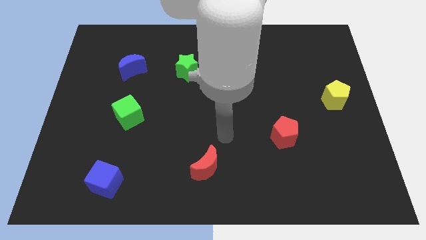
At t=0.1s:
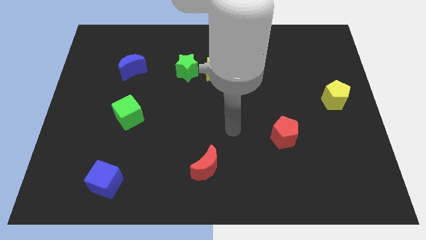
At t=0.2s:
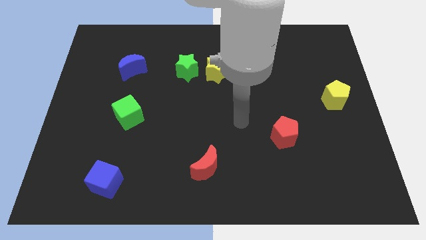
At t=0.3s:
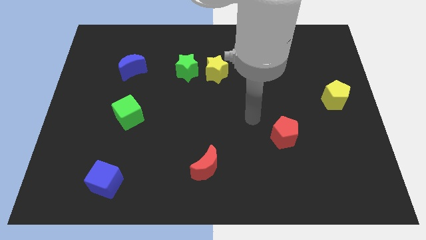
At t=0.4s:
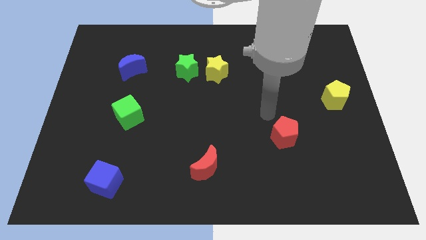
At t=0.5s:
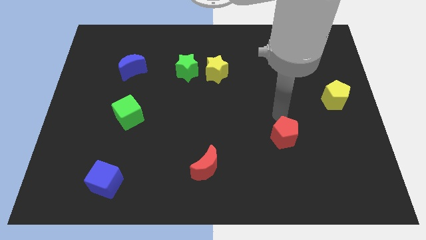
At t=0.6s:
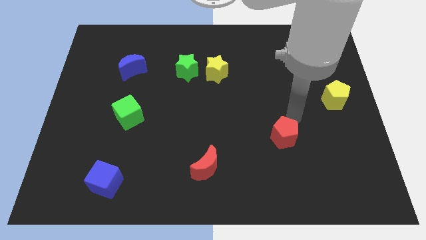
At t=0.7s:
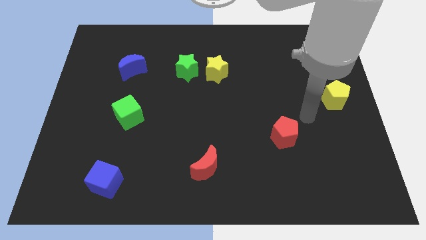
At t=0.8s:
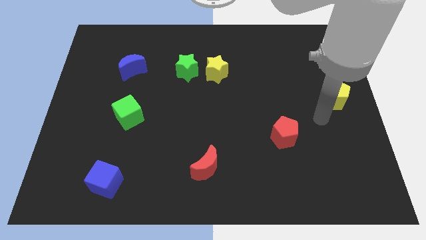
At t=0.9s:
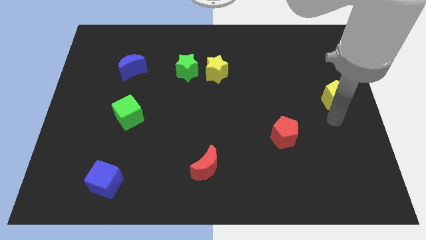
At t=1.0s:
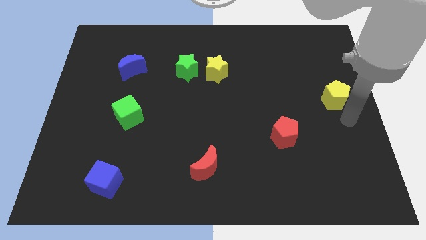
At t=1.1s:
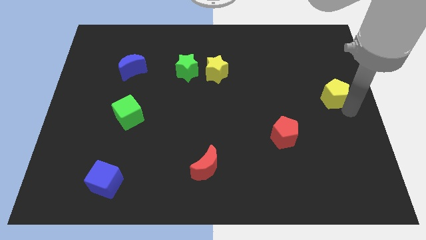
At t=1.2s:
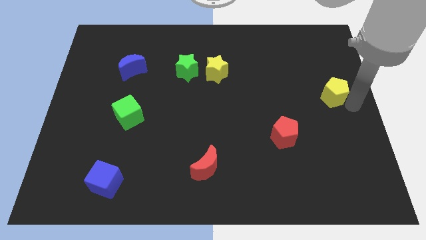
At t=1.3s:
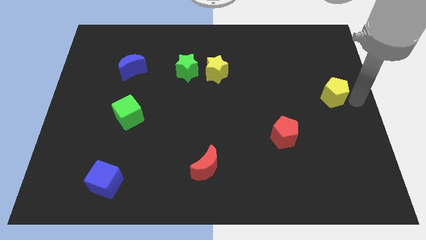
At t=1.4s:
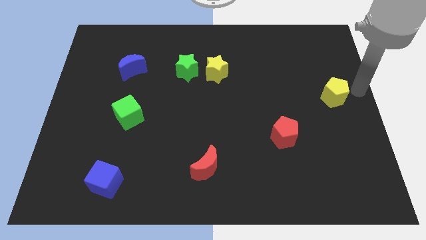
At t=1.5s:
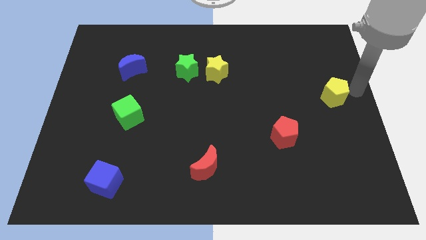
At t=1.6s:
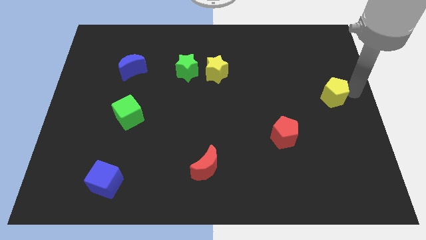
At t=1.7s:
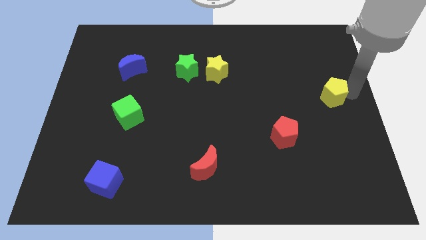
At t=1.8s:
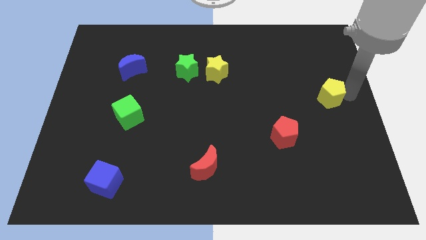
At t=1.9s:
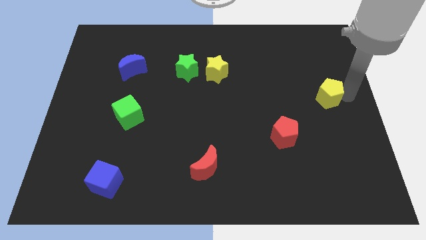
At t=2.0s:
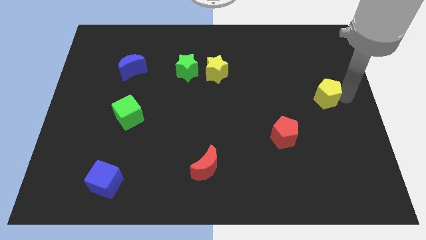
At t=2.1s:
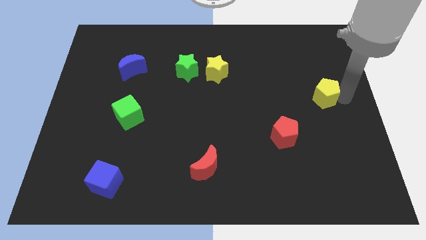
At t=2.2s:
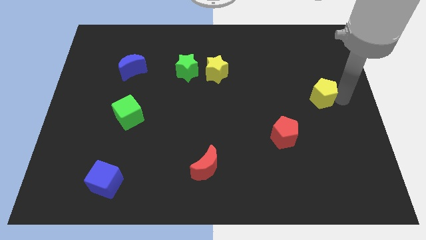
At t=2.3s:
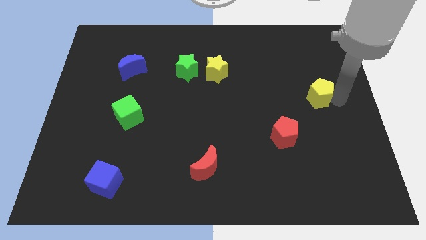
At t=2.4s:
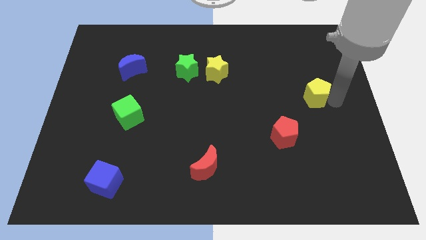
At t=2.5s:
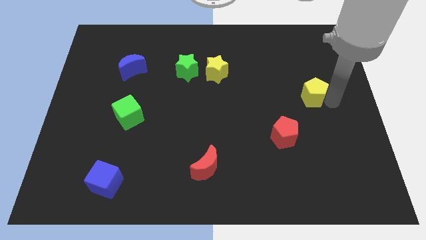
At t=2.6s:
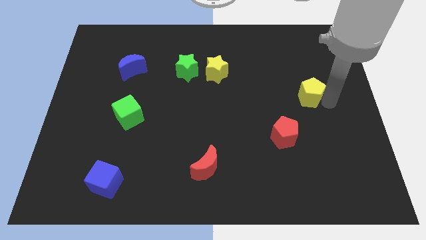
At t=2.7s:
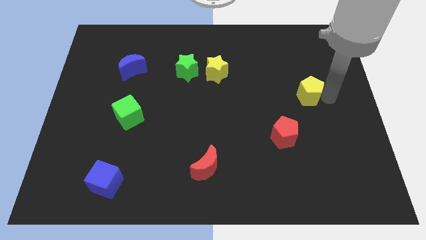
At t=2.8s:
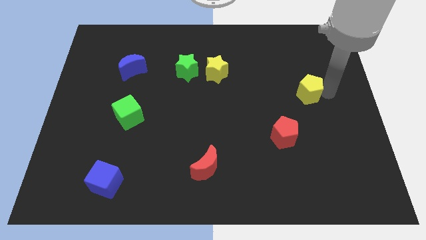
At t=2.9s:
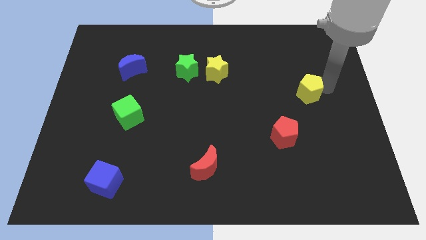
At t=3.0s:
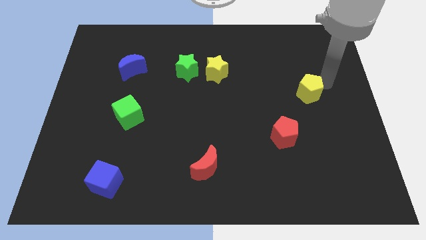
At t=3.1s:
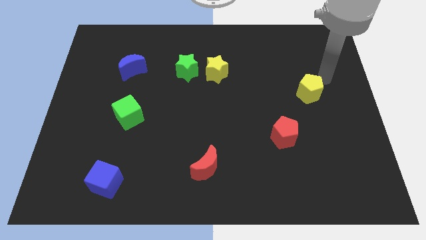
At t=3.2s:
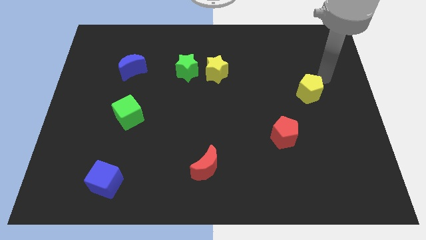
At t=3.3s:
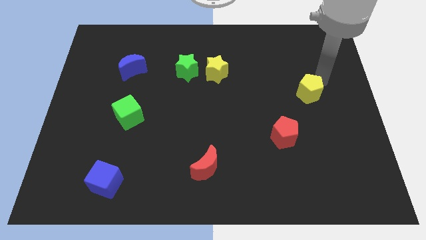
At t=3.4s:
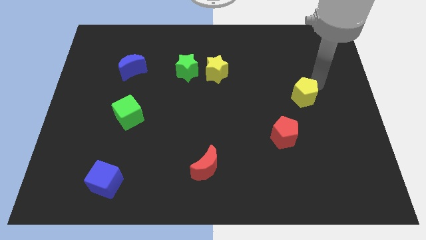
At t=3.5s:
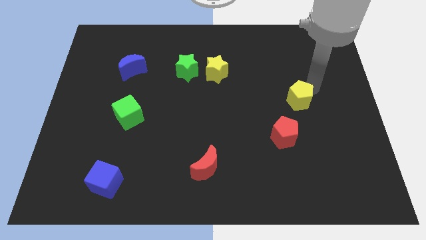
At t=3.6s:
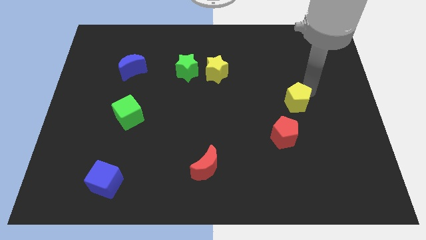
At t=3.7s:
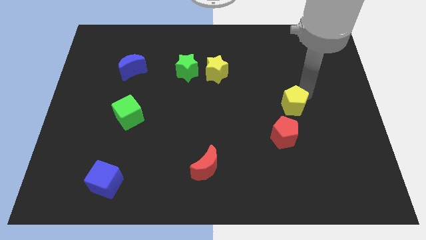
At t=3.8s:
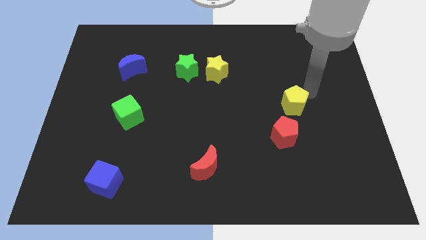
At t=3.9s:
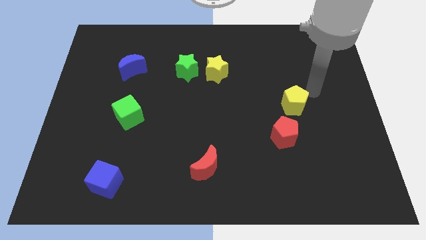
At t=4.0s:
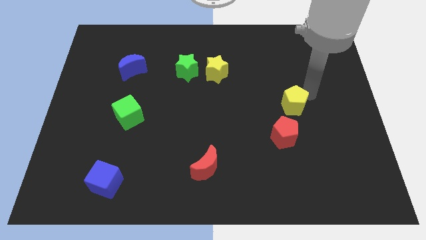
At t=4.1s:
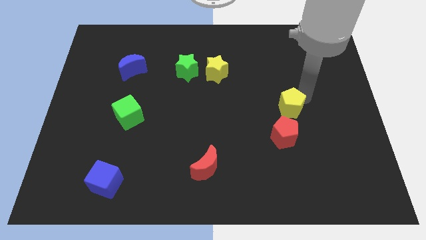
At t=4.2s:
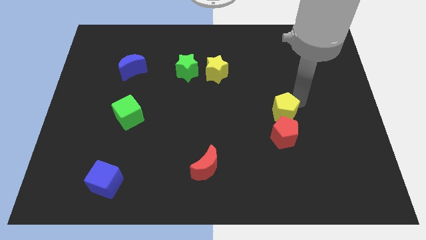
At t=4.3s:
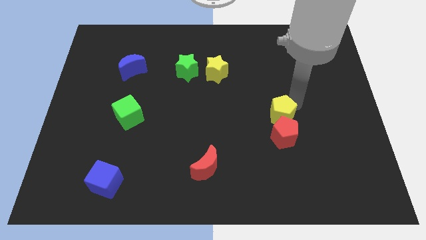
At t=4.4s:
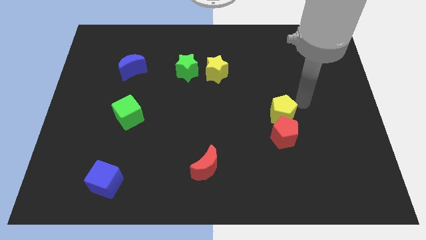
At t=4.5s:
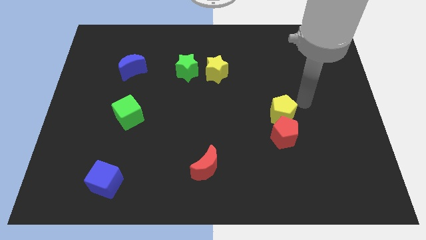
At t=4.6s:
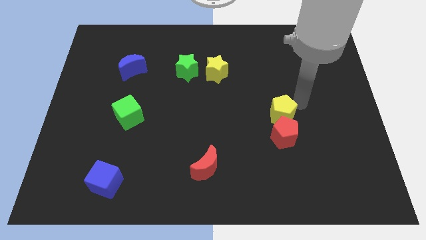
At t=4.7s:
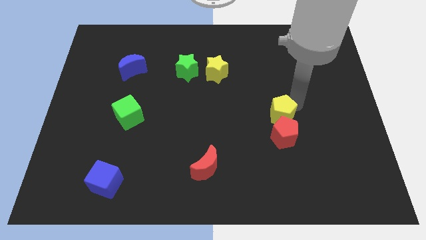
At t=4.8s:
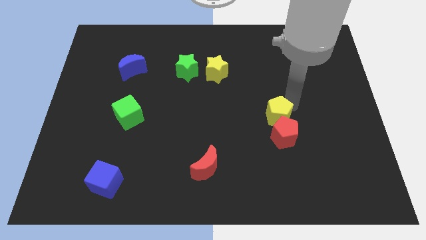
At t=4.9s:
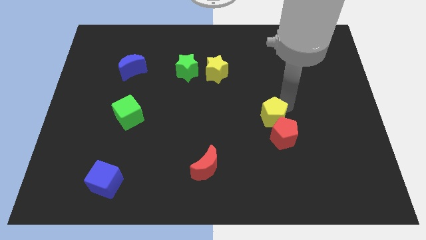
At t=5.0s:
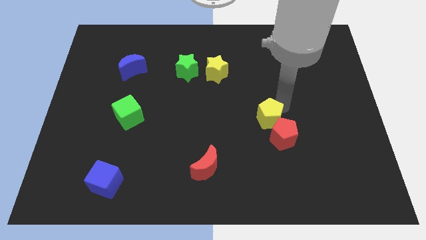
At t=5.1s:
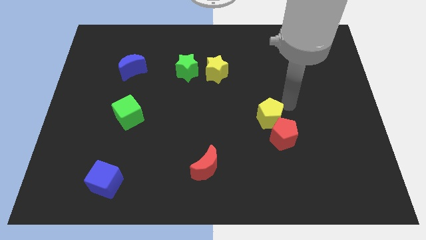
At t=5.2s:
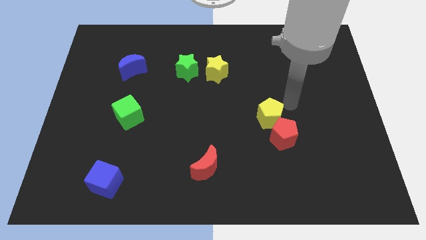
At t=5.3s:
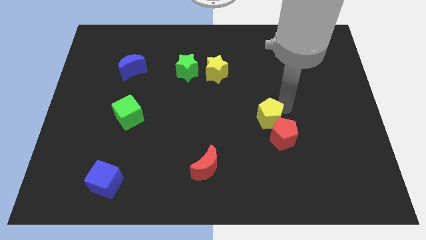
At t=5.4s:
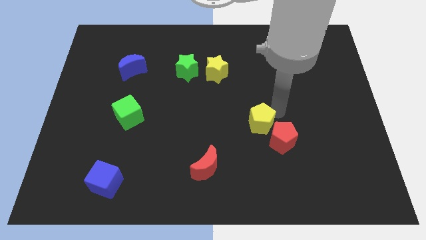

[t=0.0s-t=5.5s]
move the yellow pentagon to the left of the red pentagon

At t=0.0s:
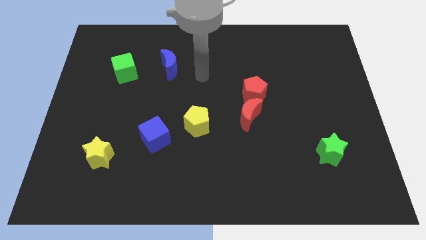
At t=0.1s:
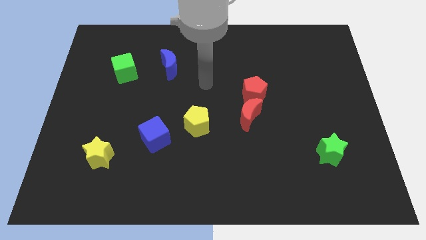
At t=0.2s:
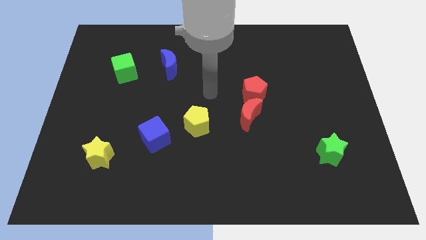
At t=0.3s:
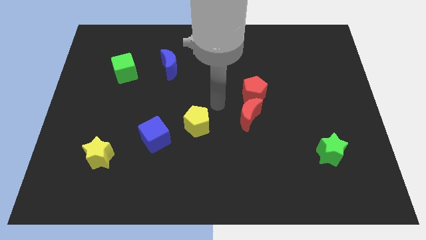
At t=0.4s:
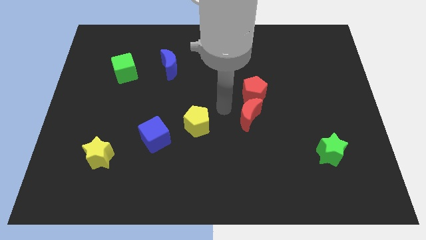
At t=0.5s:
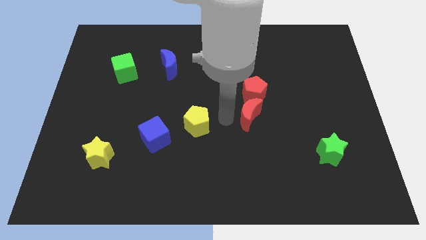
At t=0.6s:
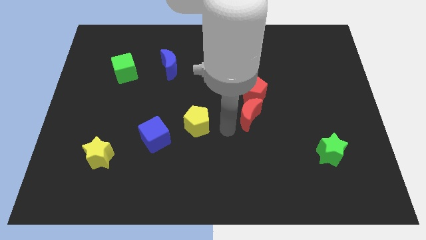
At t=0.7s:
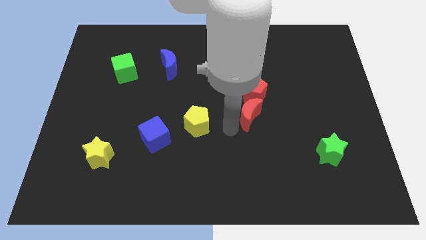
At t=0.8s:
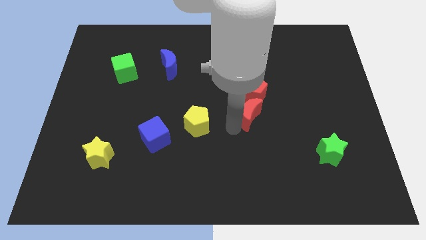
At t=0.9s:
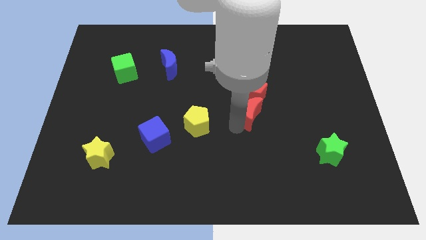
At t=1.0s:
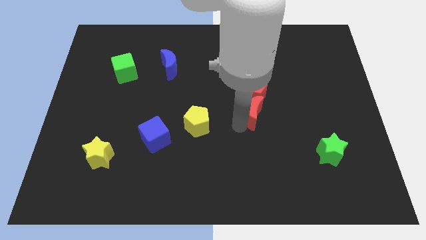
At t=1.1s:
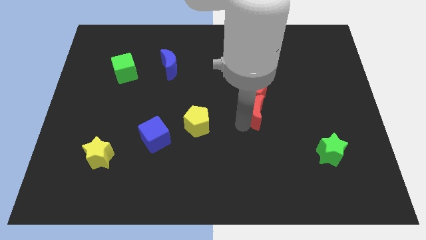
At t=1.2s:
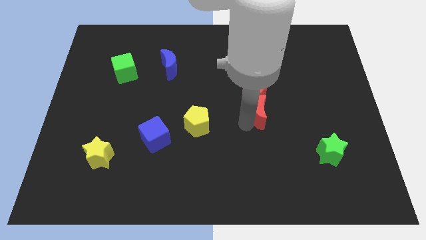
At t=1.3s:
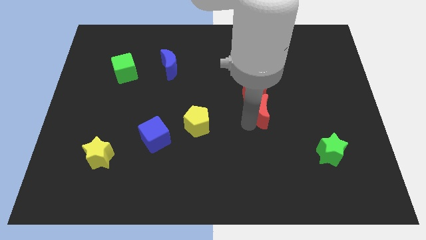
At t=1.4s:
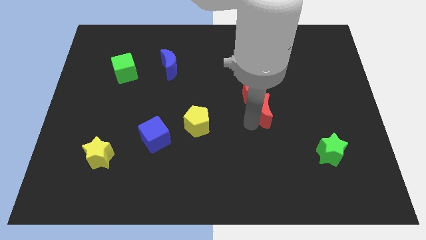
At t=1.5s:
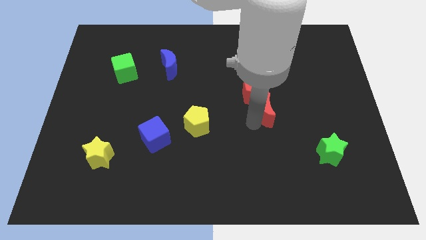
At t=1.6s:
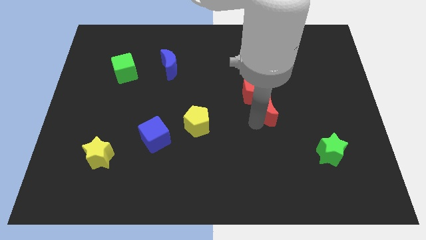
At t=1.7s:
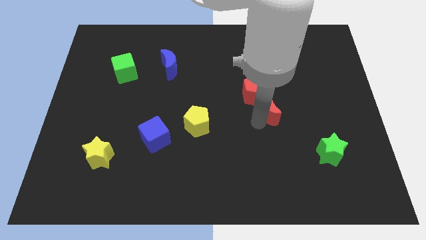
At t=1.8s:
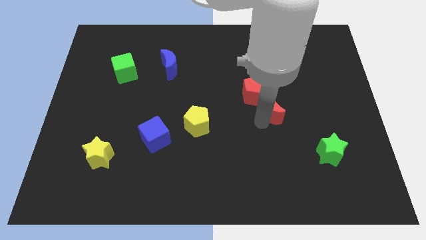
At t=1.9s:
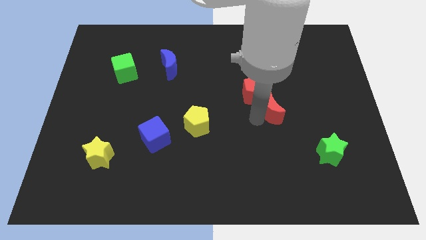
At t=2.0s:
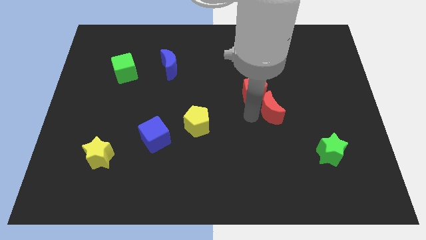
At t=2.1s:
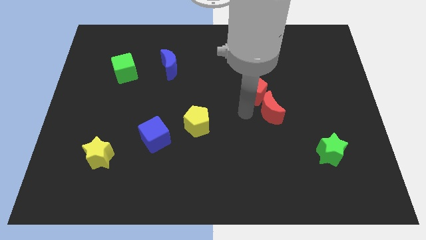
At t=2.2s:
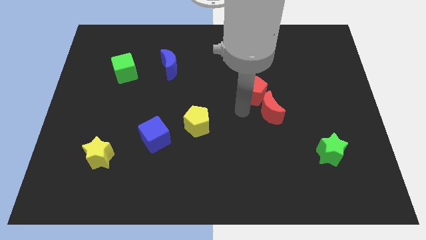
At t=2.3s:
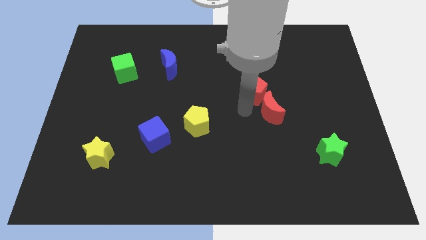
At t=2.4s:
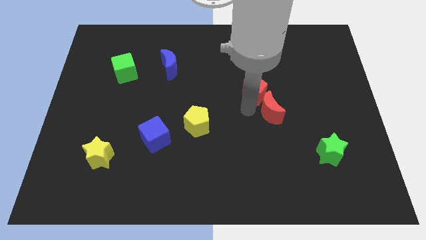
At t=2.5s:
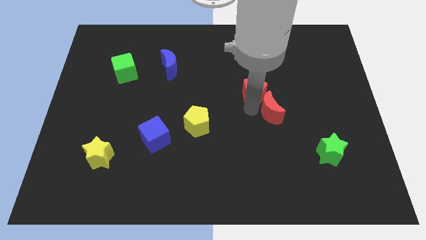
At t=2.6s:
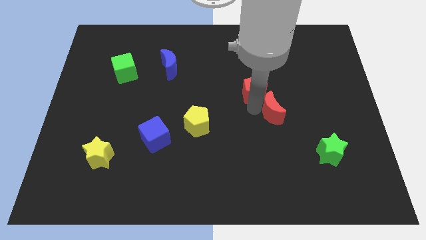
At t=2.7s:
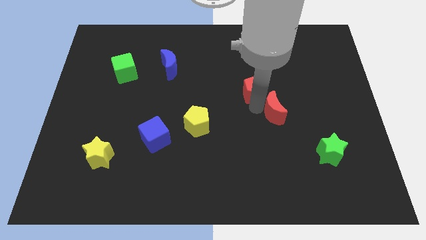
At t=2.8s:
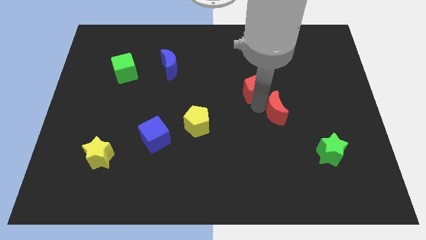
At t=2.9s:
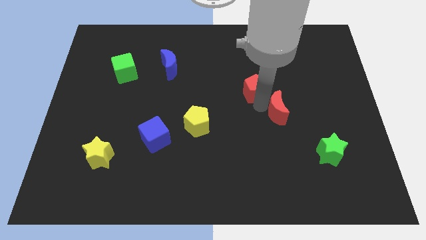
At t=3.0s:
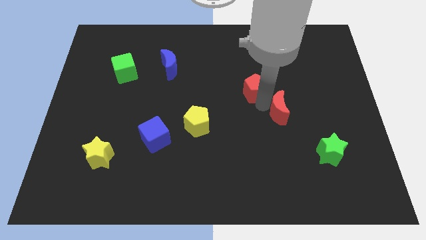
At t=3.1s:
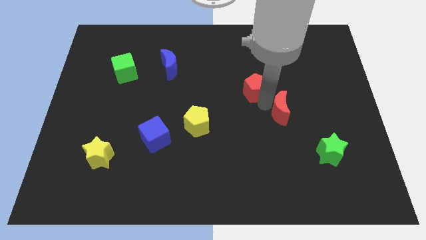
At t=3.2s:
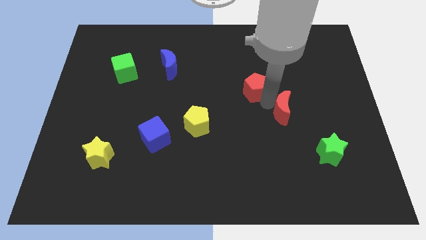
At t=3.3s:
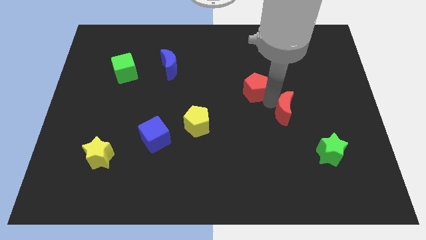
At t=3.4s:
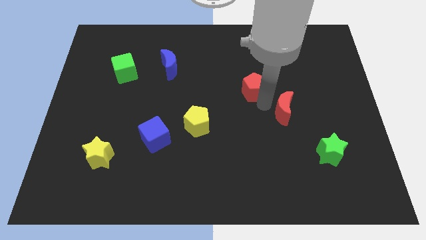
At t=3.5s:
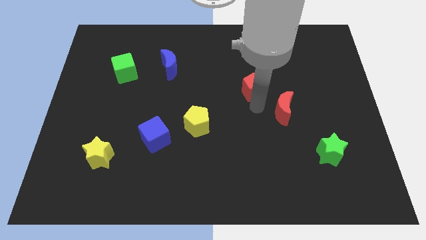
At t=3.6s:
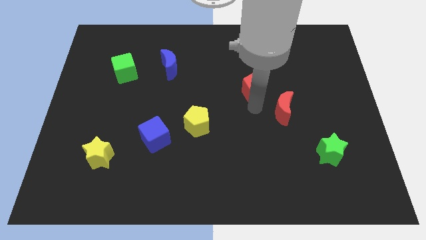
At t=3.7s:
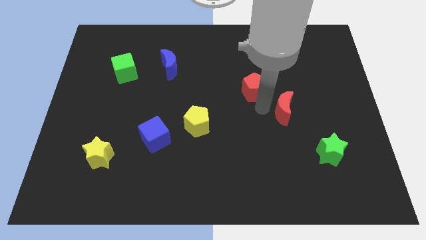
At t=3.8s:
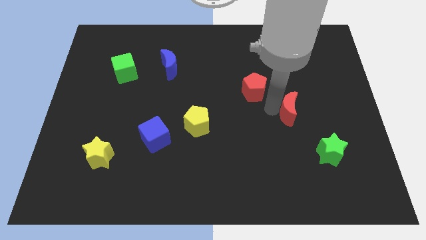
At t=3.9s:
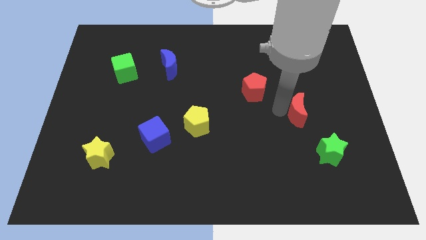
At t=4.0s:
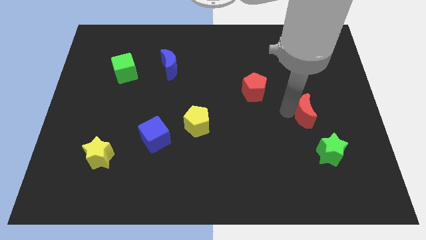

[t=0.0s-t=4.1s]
move the red moon to the top of the green star
